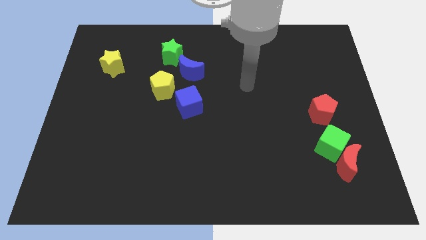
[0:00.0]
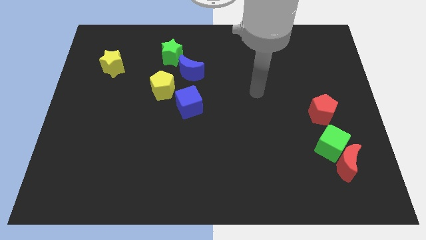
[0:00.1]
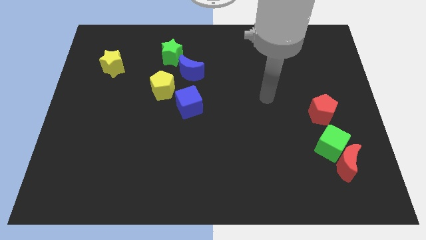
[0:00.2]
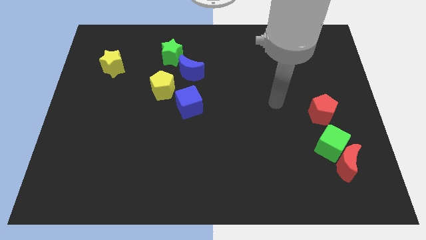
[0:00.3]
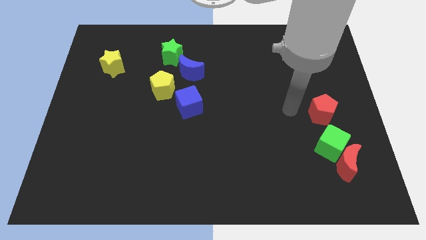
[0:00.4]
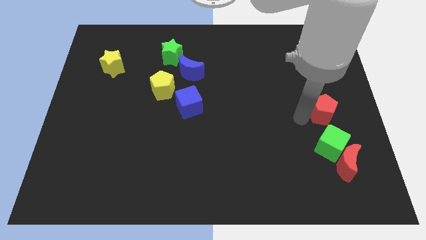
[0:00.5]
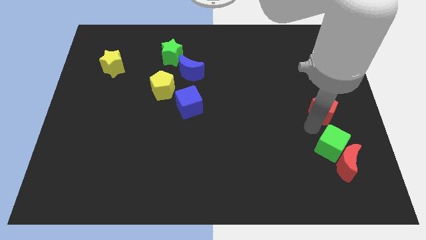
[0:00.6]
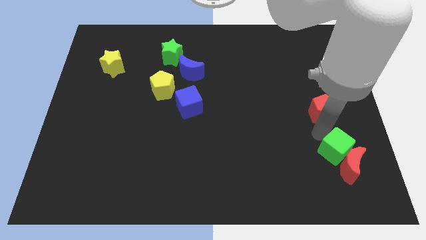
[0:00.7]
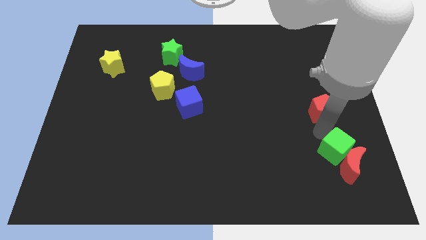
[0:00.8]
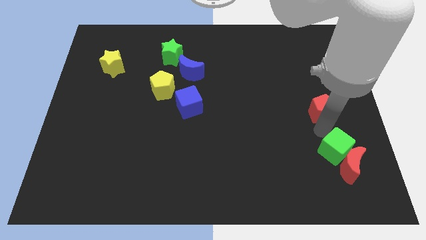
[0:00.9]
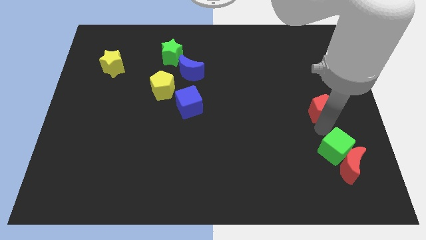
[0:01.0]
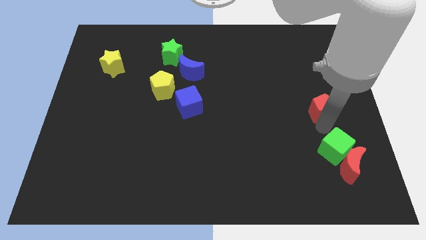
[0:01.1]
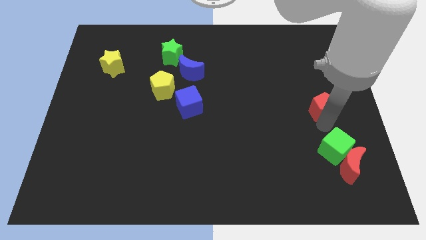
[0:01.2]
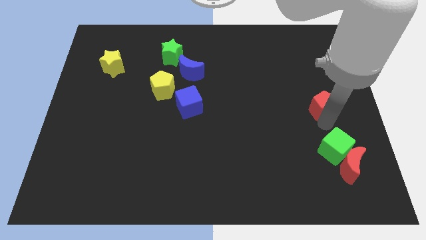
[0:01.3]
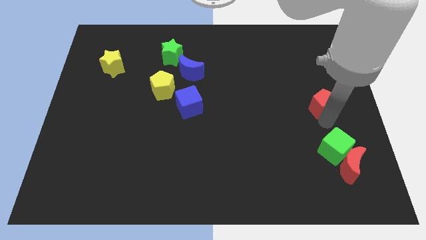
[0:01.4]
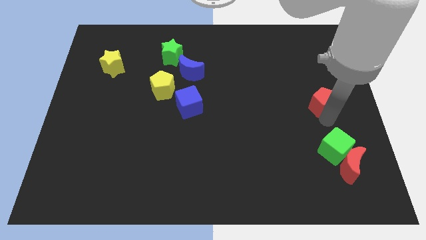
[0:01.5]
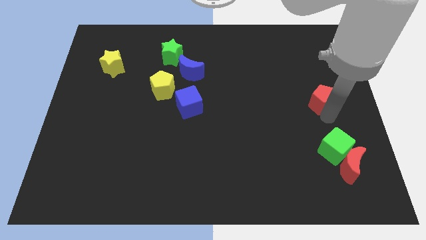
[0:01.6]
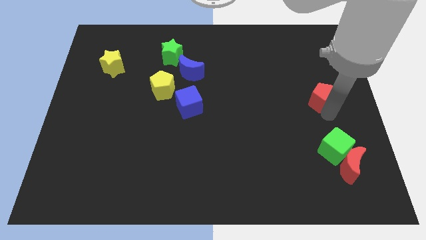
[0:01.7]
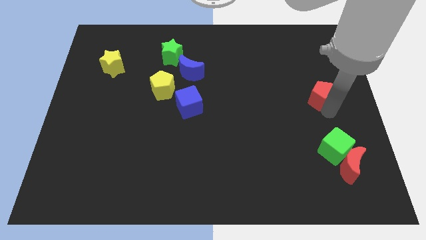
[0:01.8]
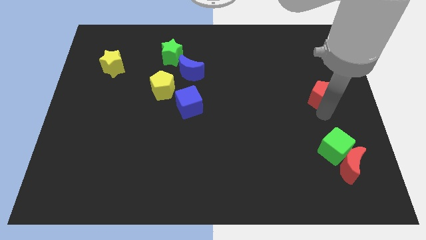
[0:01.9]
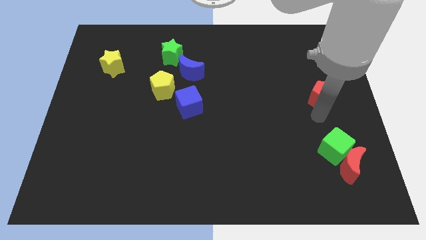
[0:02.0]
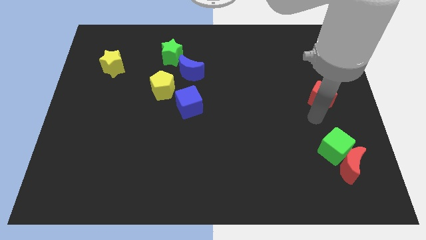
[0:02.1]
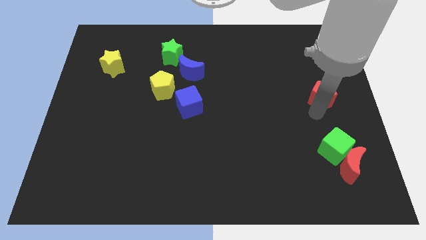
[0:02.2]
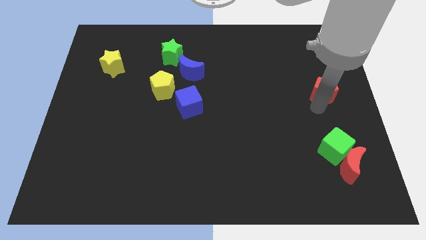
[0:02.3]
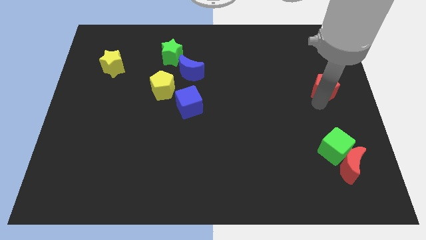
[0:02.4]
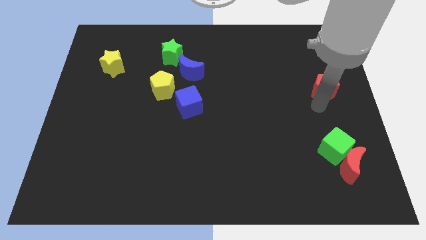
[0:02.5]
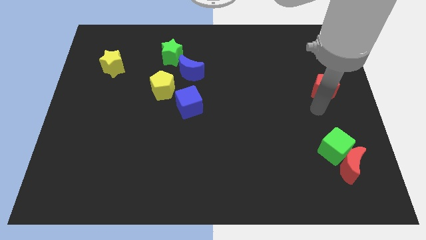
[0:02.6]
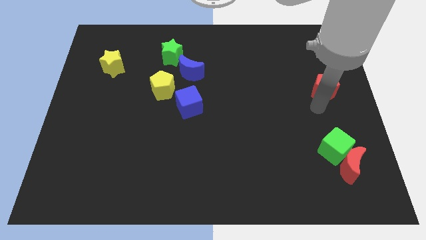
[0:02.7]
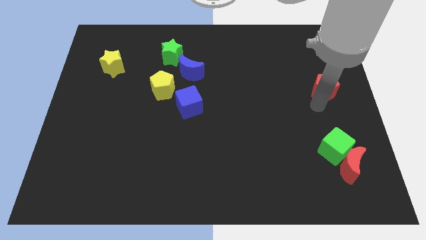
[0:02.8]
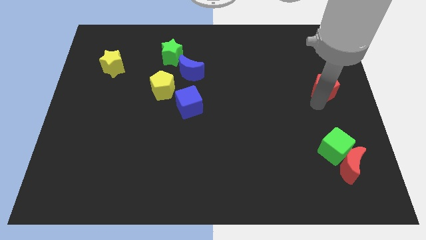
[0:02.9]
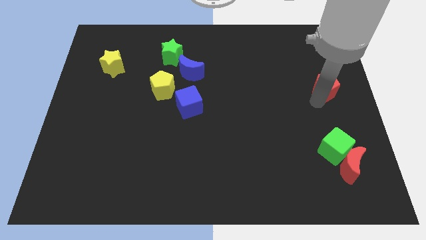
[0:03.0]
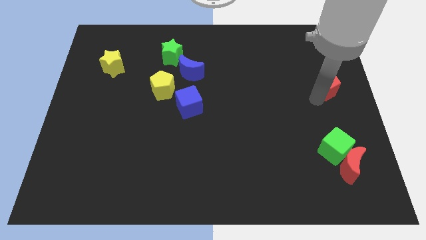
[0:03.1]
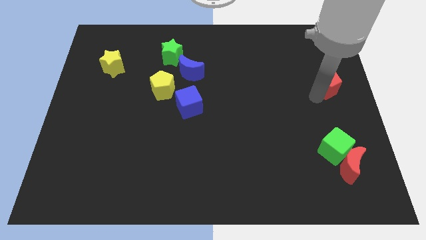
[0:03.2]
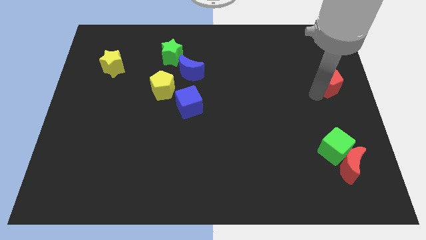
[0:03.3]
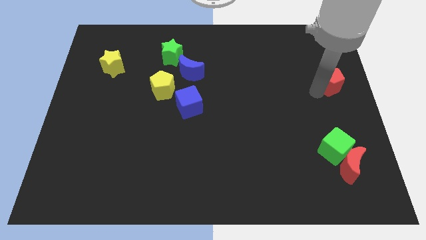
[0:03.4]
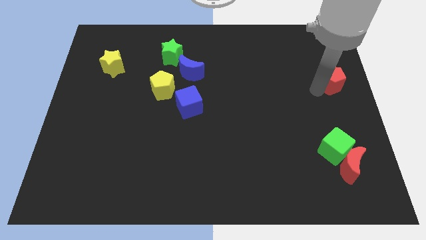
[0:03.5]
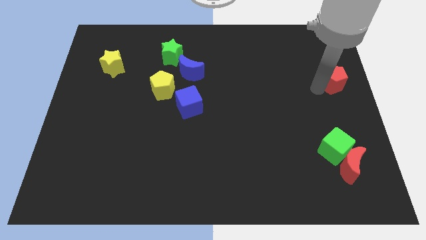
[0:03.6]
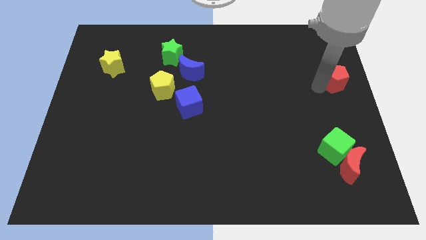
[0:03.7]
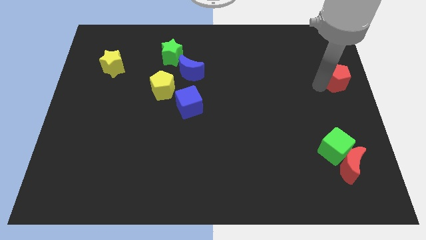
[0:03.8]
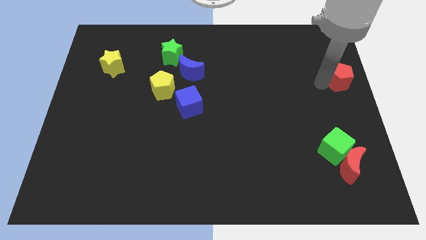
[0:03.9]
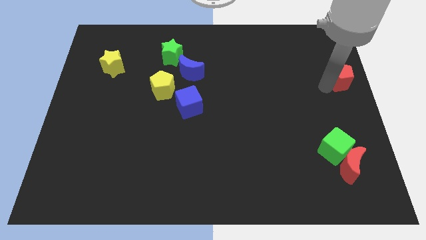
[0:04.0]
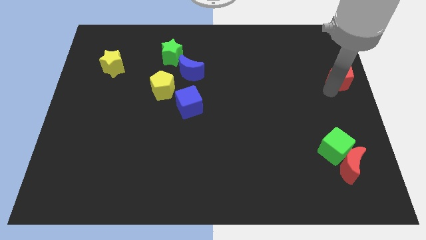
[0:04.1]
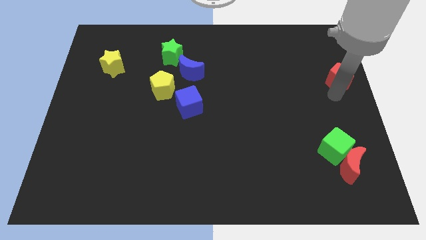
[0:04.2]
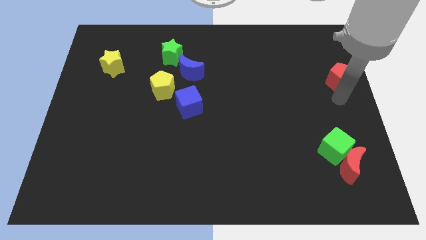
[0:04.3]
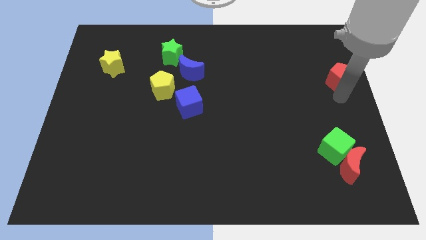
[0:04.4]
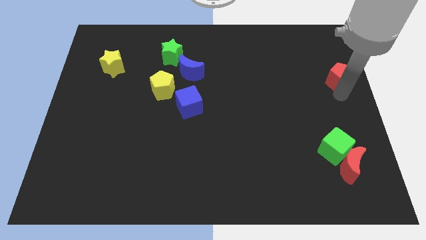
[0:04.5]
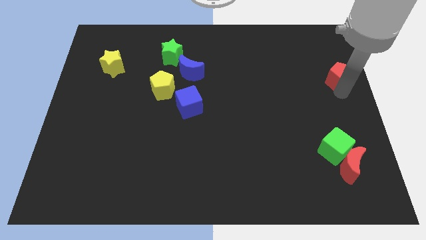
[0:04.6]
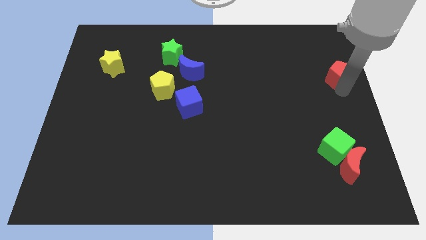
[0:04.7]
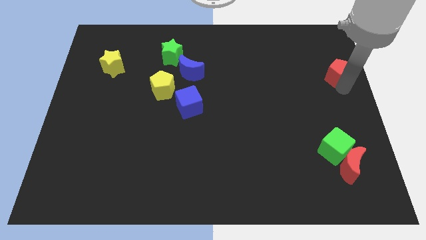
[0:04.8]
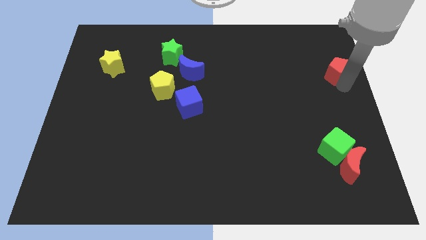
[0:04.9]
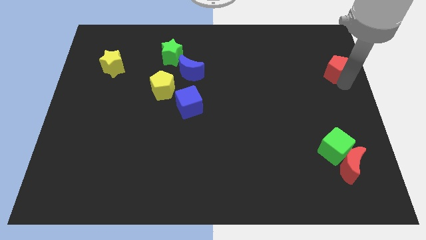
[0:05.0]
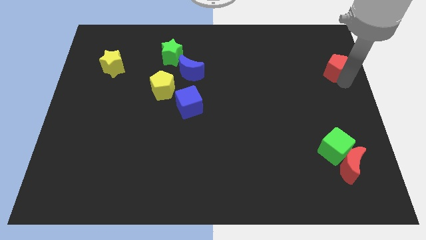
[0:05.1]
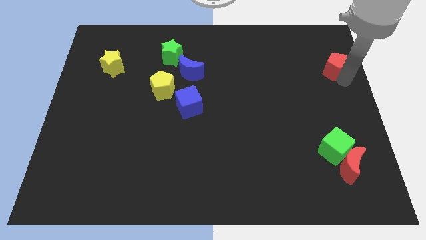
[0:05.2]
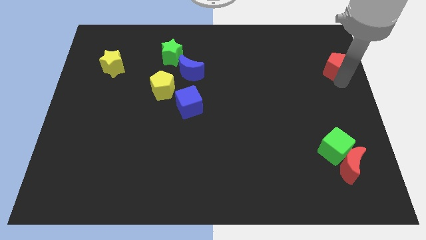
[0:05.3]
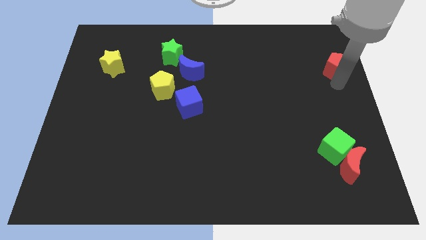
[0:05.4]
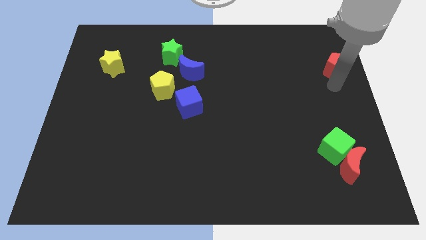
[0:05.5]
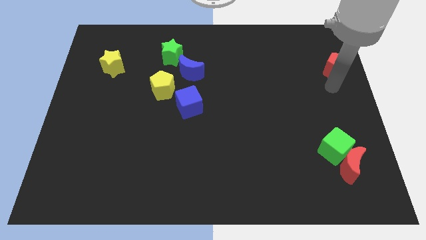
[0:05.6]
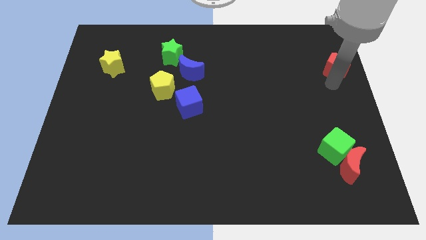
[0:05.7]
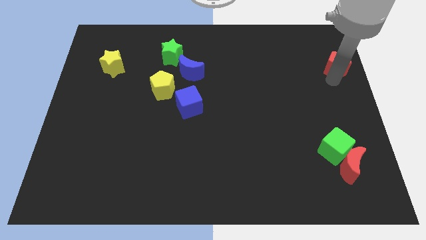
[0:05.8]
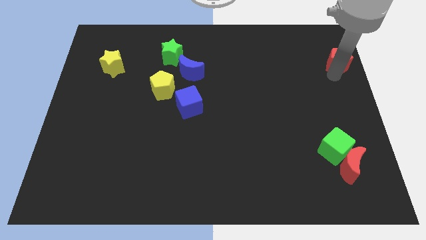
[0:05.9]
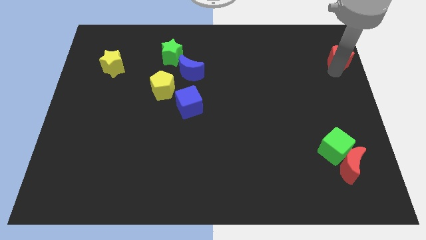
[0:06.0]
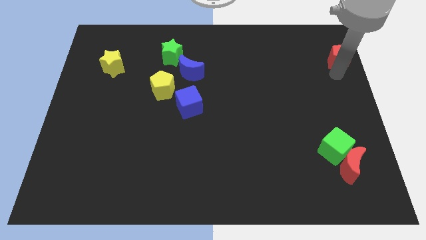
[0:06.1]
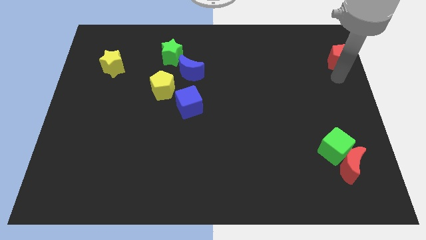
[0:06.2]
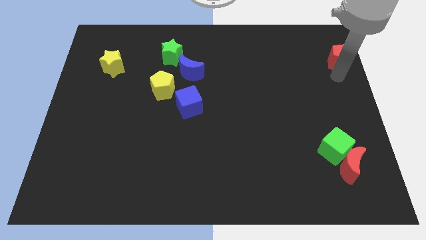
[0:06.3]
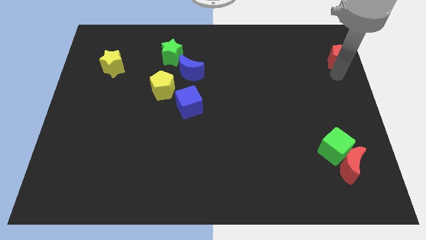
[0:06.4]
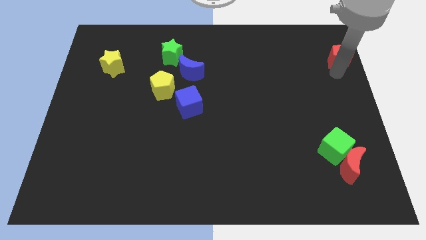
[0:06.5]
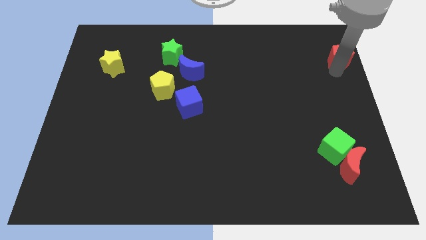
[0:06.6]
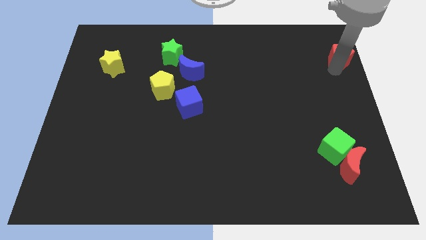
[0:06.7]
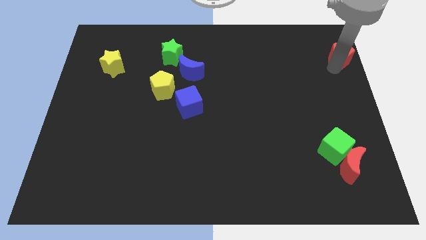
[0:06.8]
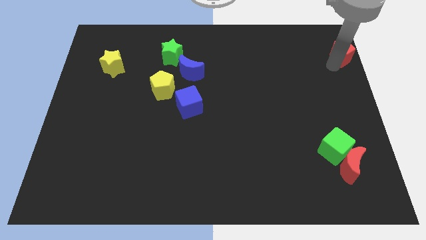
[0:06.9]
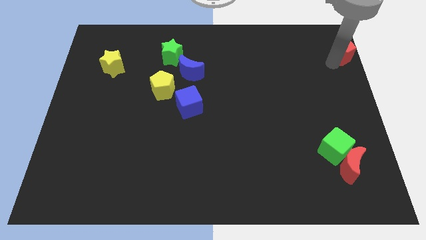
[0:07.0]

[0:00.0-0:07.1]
move the red pentagon to the top right of the board
